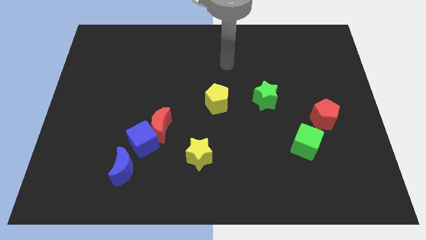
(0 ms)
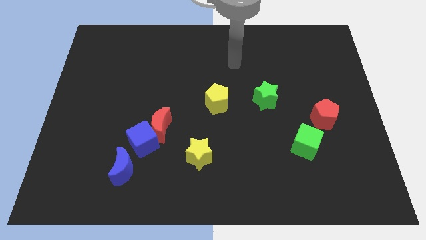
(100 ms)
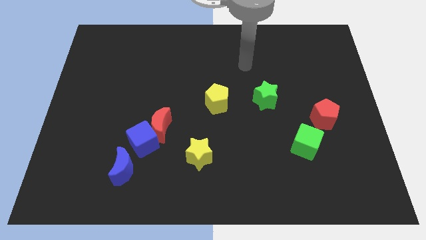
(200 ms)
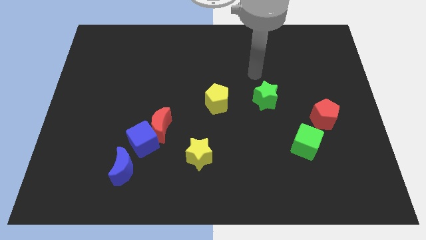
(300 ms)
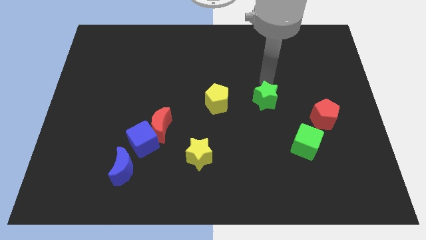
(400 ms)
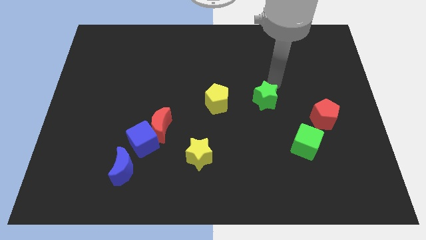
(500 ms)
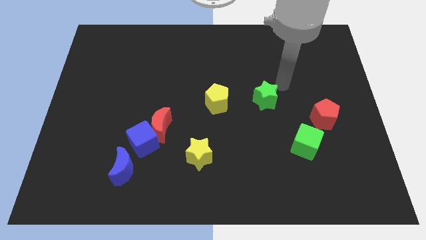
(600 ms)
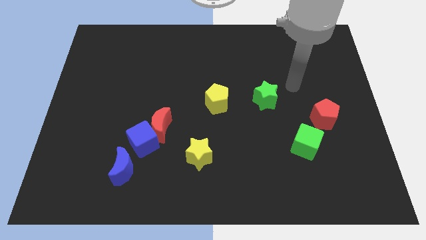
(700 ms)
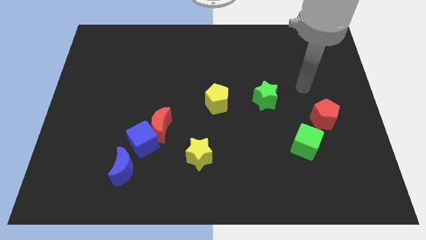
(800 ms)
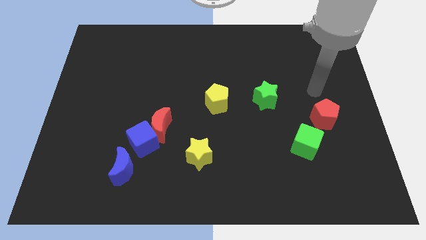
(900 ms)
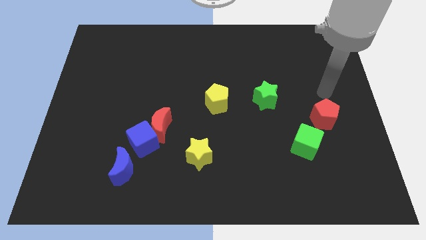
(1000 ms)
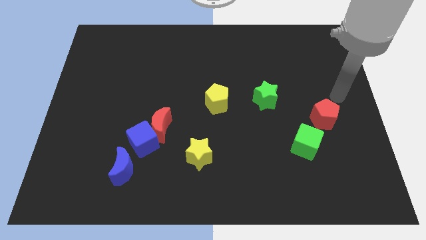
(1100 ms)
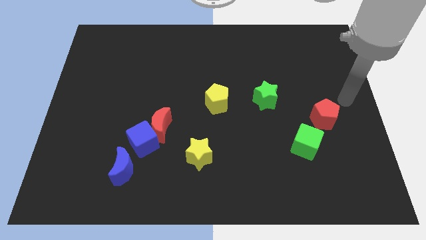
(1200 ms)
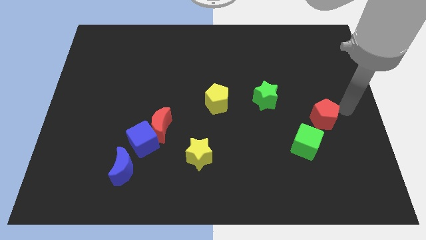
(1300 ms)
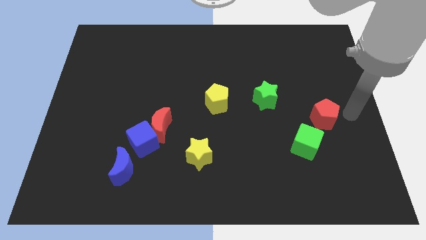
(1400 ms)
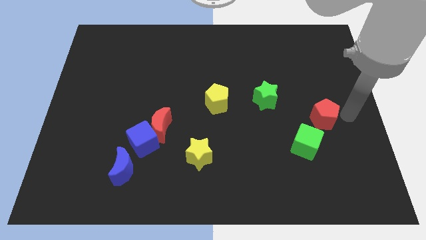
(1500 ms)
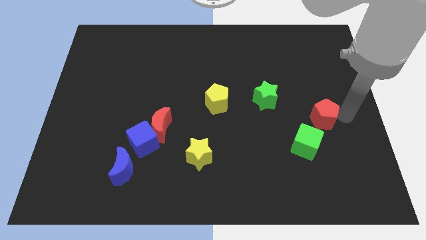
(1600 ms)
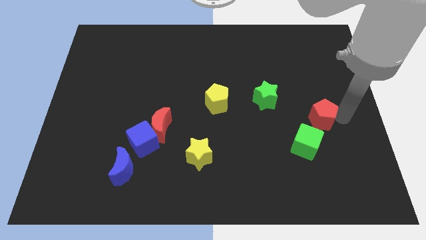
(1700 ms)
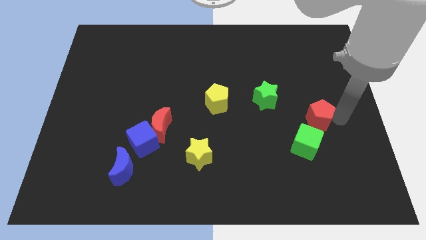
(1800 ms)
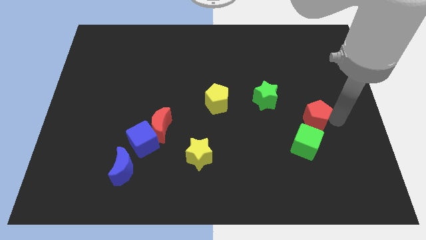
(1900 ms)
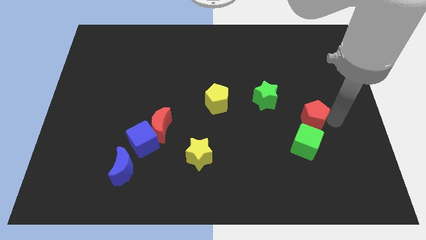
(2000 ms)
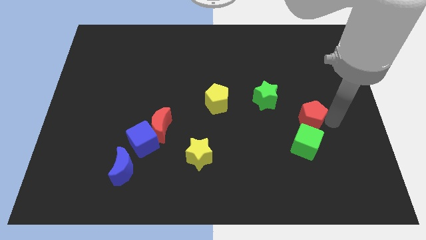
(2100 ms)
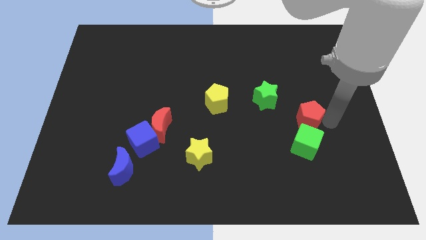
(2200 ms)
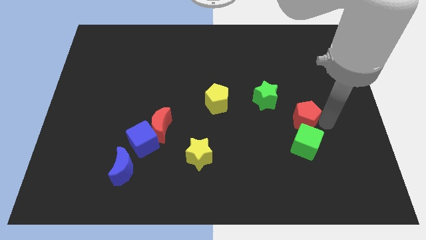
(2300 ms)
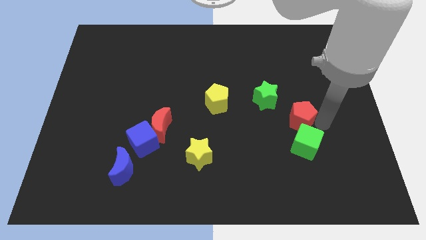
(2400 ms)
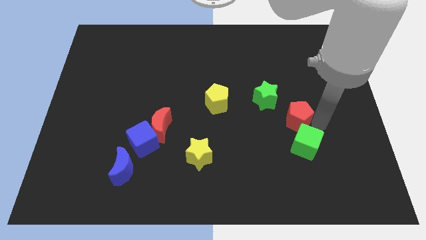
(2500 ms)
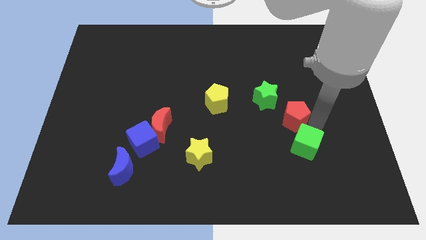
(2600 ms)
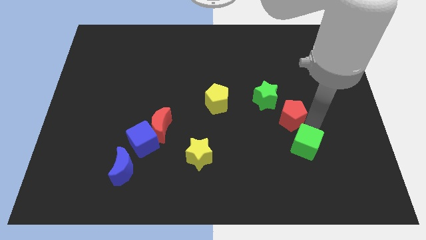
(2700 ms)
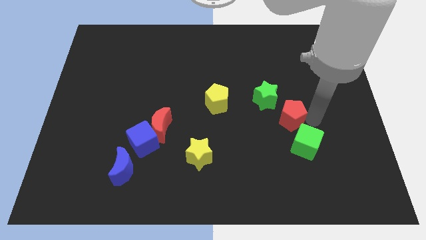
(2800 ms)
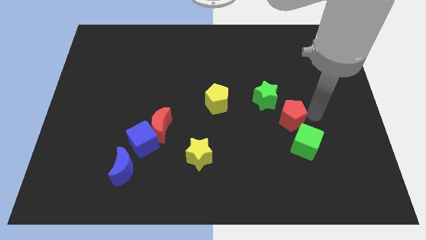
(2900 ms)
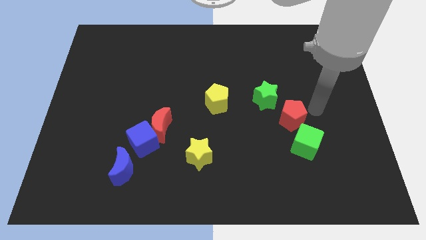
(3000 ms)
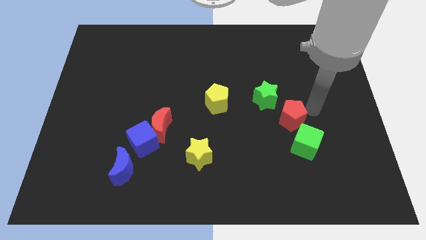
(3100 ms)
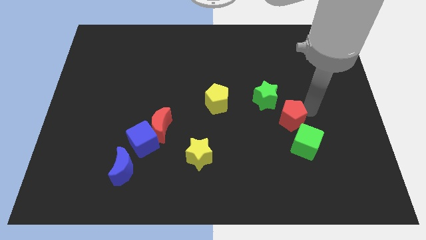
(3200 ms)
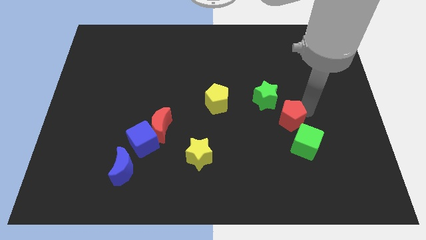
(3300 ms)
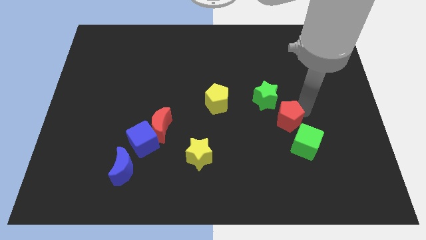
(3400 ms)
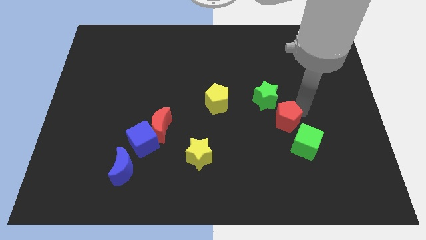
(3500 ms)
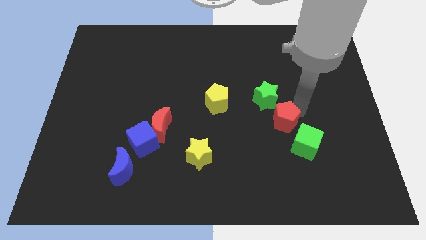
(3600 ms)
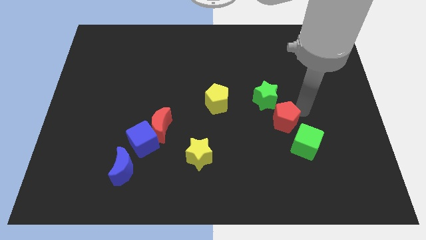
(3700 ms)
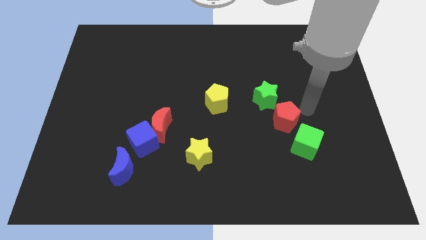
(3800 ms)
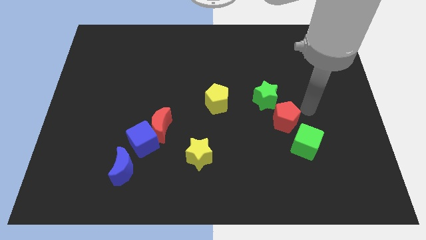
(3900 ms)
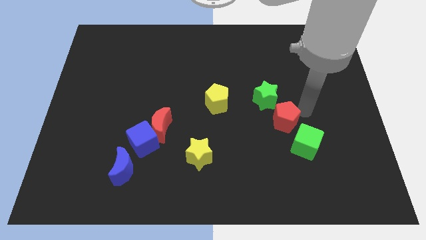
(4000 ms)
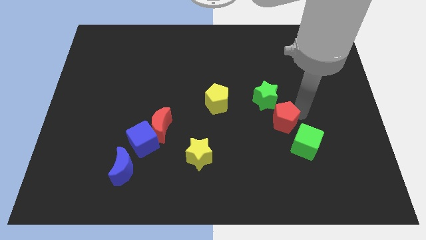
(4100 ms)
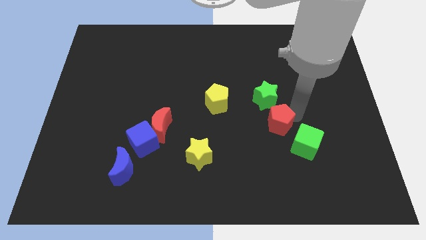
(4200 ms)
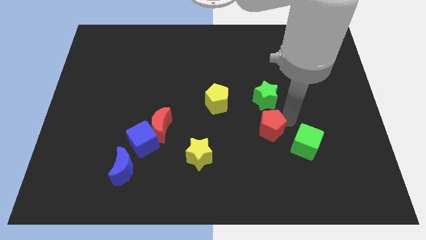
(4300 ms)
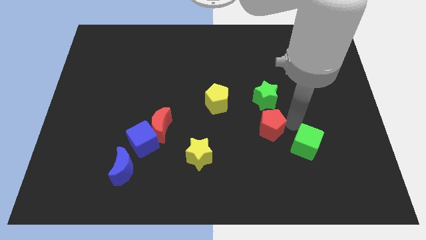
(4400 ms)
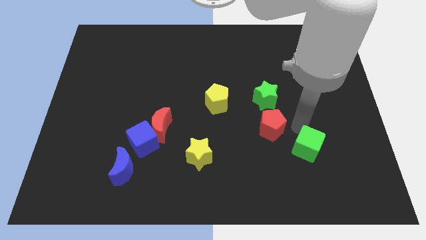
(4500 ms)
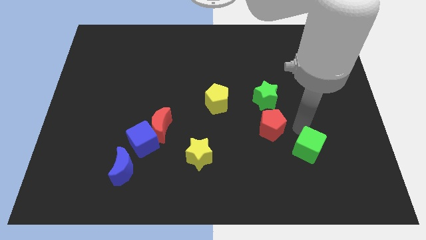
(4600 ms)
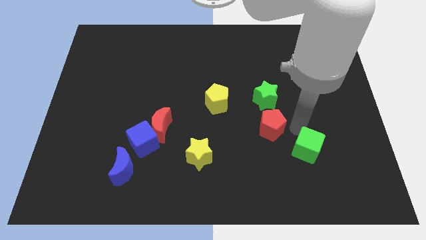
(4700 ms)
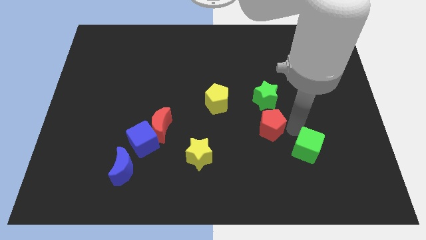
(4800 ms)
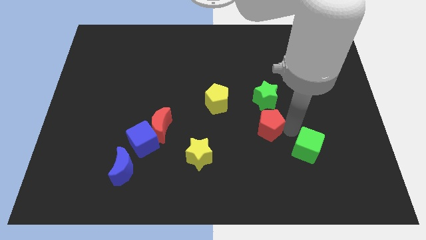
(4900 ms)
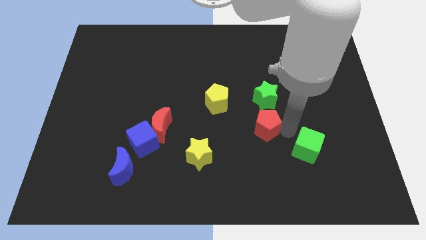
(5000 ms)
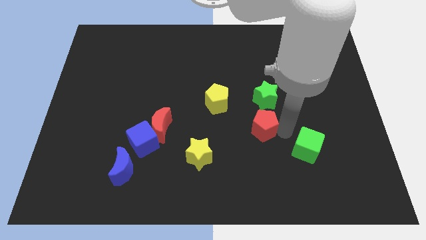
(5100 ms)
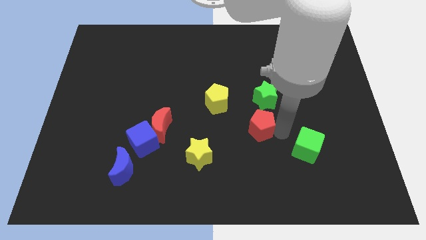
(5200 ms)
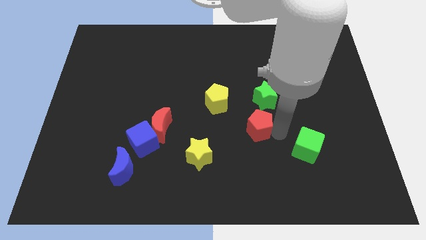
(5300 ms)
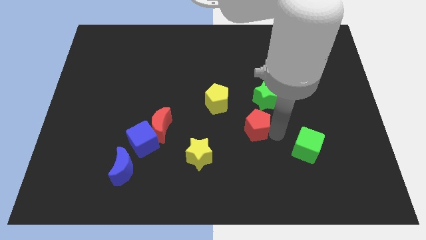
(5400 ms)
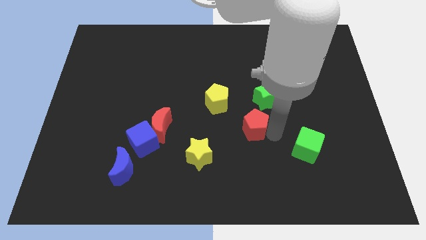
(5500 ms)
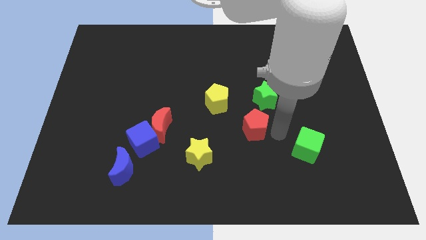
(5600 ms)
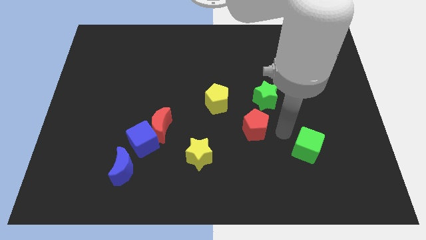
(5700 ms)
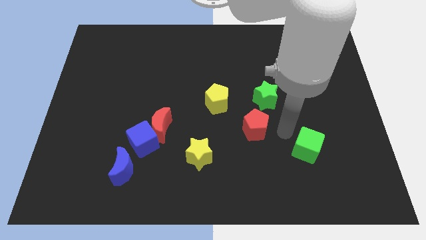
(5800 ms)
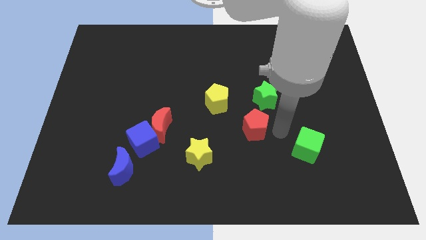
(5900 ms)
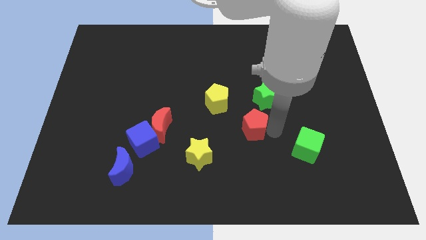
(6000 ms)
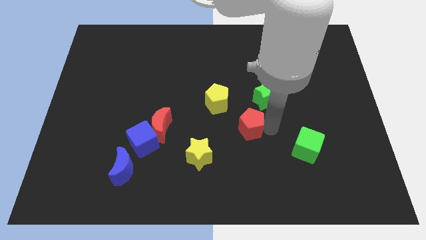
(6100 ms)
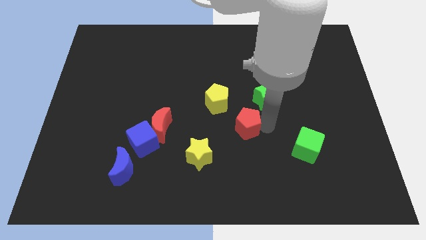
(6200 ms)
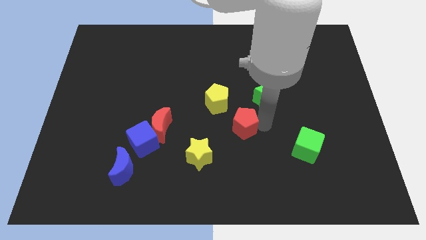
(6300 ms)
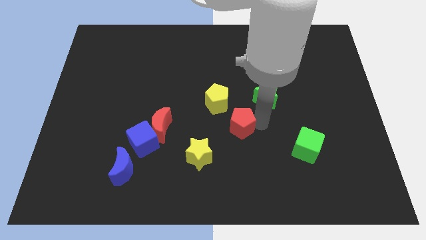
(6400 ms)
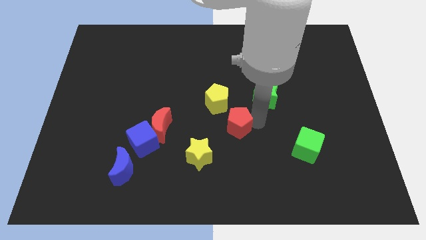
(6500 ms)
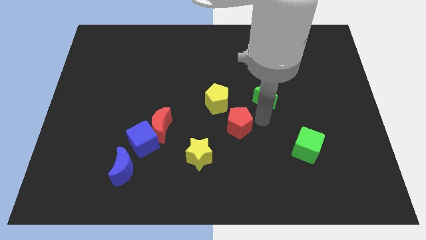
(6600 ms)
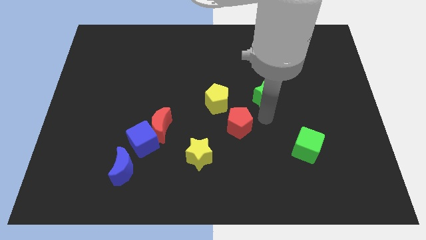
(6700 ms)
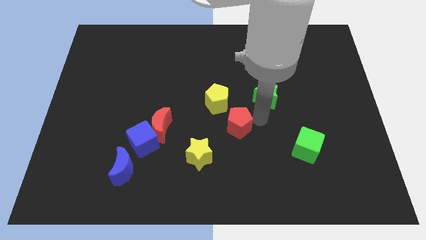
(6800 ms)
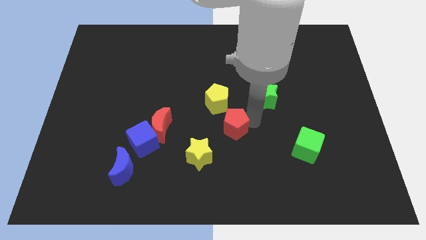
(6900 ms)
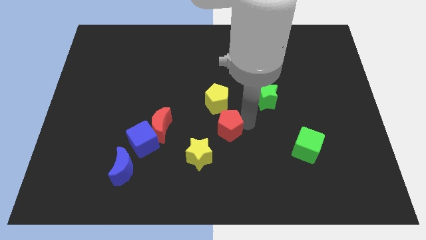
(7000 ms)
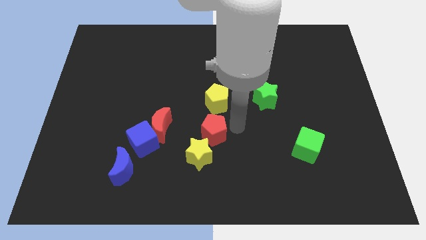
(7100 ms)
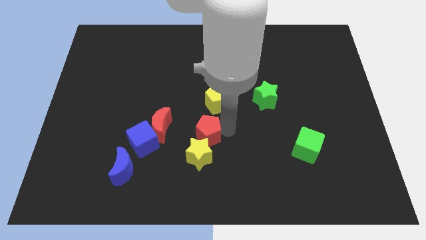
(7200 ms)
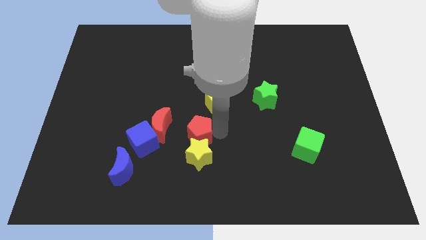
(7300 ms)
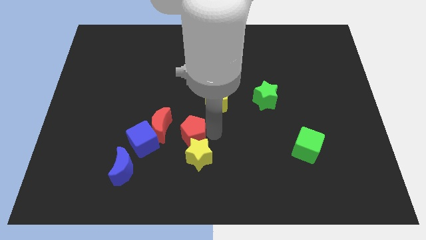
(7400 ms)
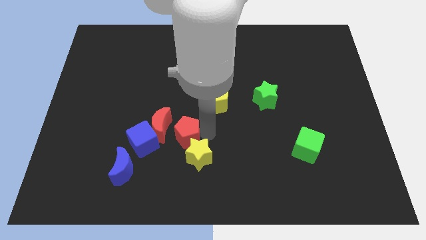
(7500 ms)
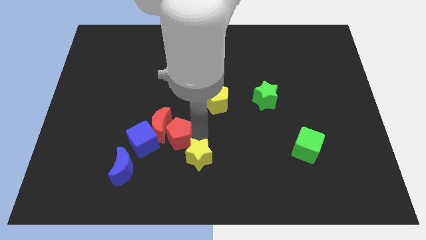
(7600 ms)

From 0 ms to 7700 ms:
slide the red pentagon next to the red moon
